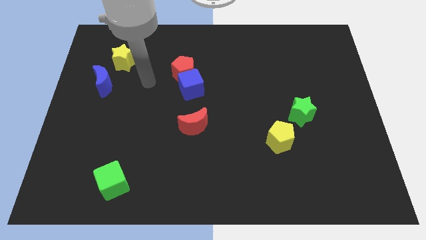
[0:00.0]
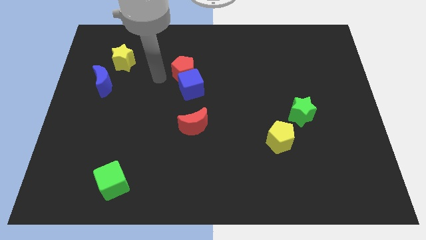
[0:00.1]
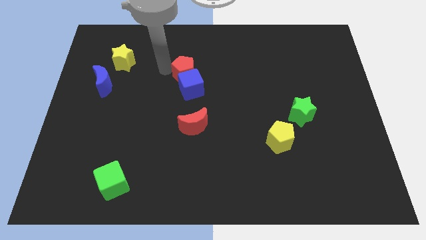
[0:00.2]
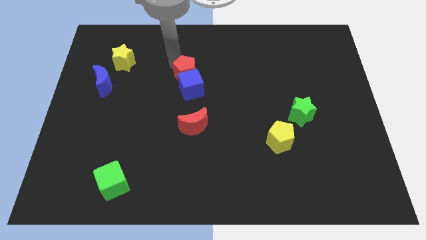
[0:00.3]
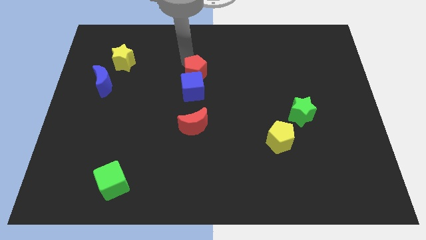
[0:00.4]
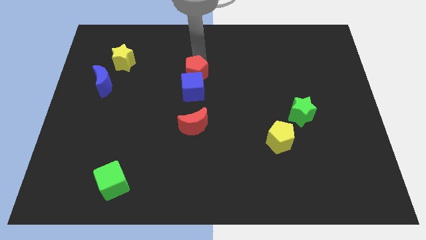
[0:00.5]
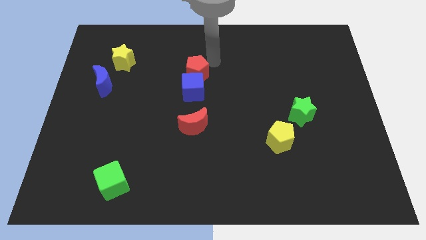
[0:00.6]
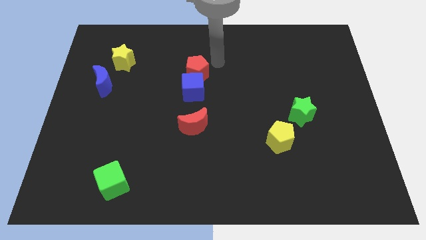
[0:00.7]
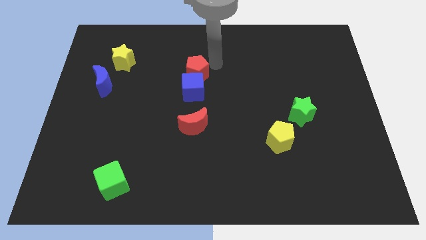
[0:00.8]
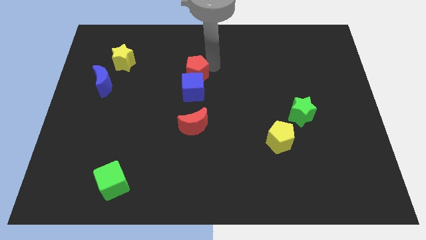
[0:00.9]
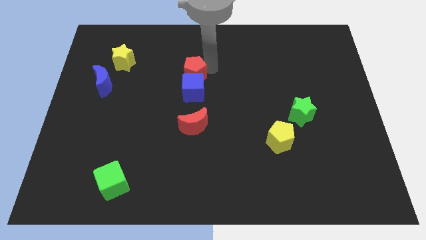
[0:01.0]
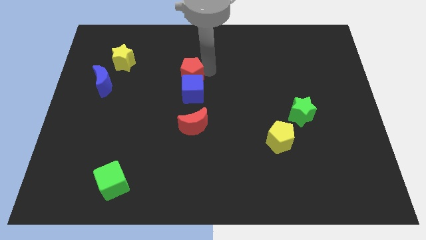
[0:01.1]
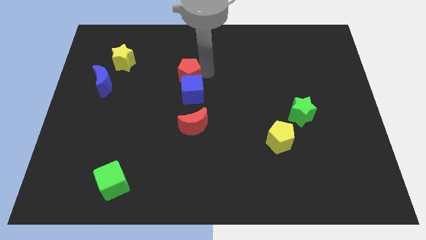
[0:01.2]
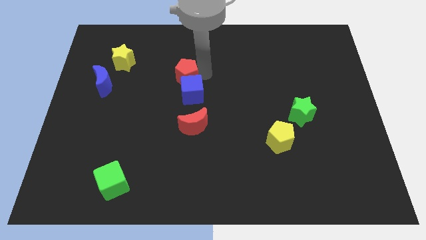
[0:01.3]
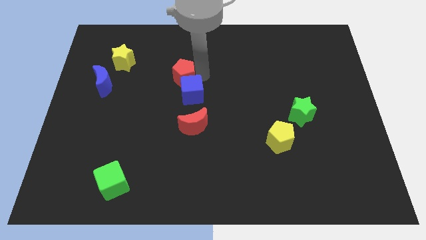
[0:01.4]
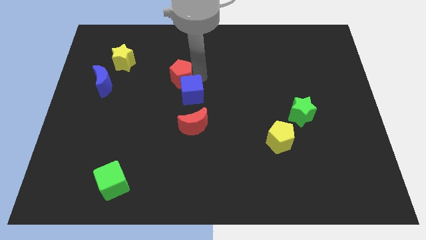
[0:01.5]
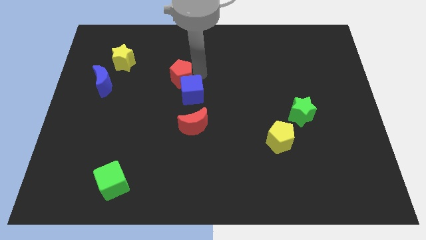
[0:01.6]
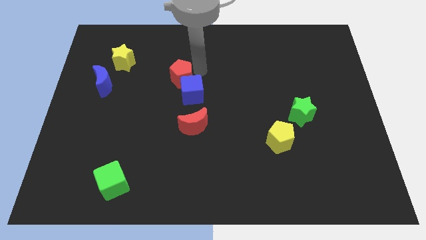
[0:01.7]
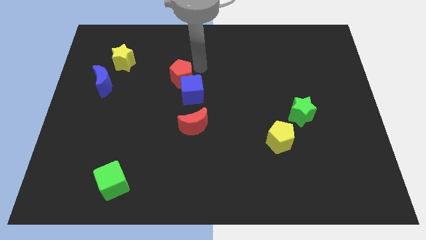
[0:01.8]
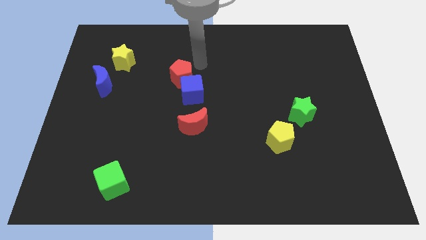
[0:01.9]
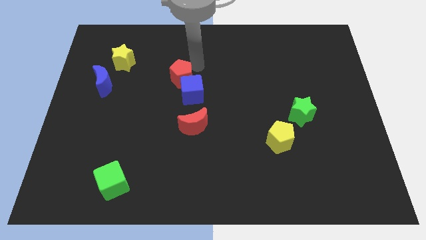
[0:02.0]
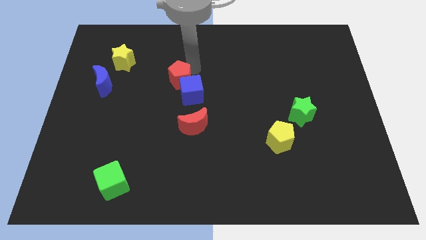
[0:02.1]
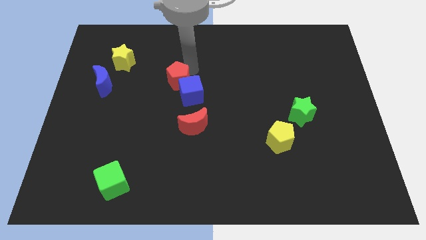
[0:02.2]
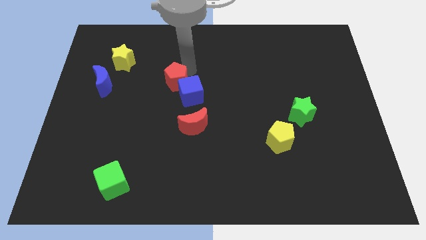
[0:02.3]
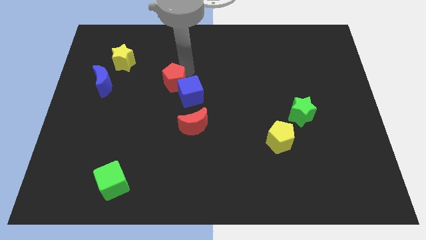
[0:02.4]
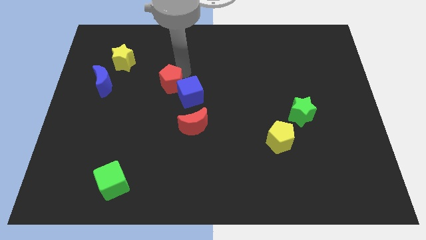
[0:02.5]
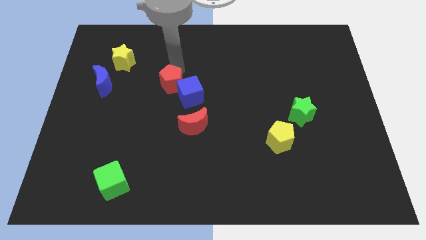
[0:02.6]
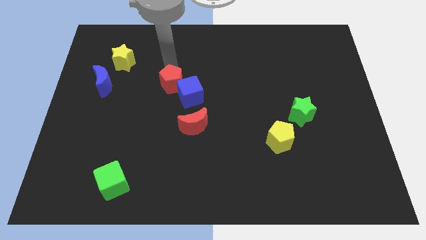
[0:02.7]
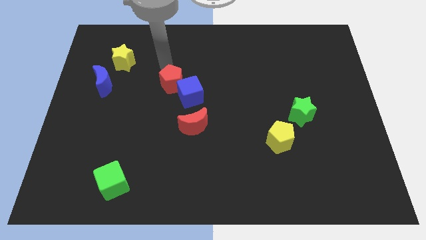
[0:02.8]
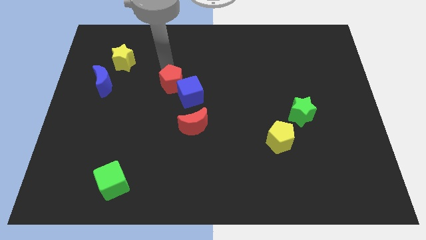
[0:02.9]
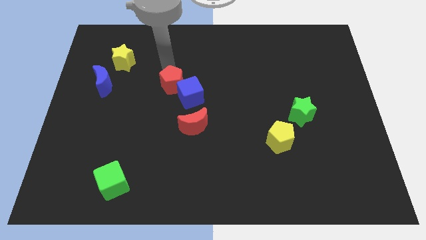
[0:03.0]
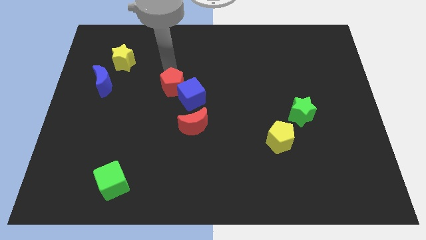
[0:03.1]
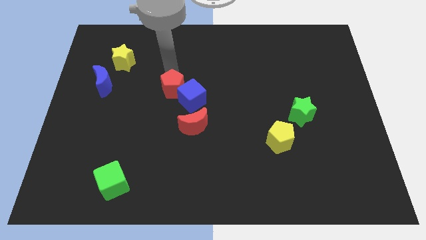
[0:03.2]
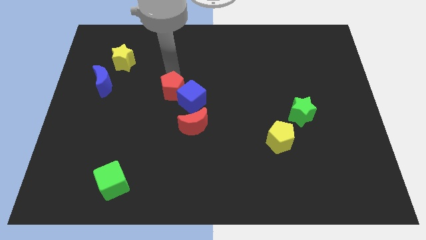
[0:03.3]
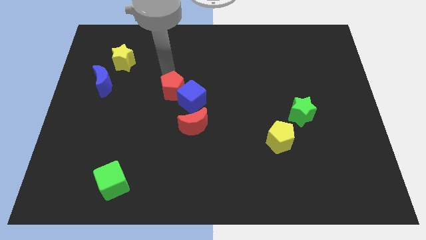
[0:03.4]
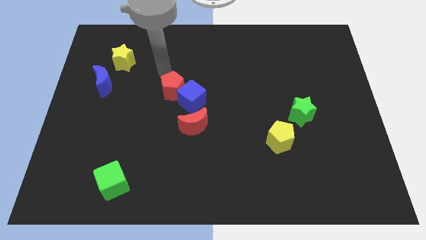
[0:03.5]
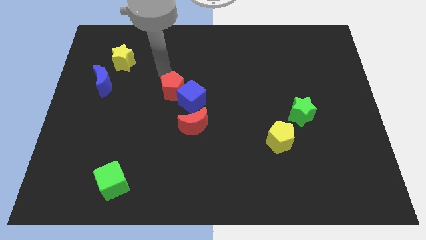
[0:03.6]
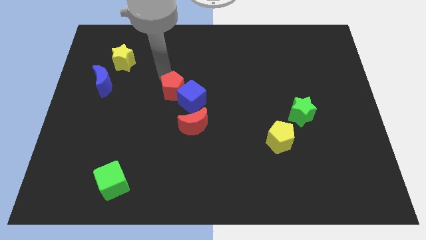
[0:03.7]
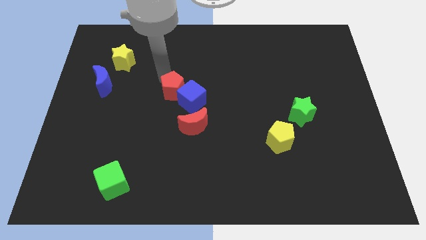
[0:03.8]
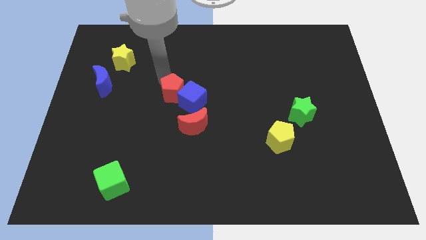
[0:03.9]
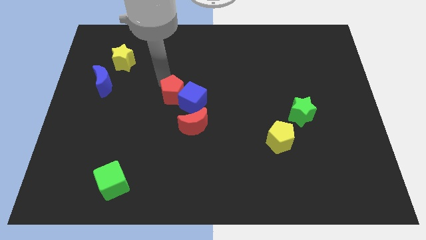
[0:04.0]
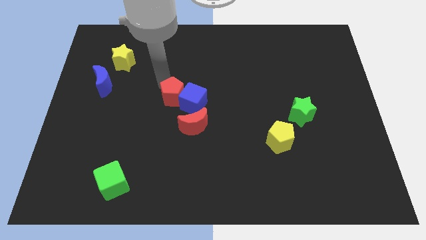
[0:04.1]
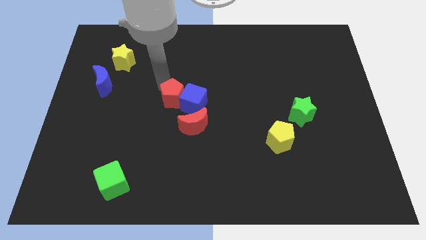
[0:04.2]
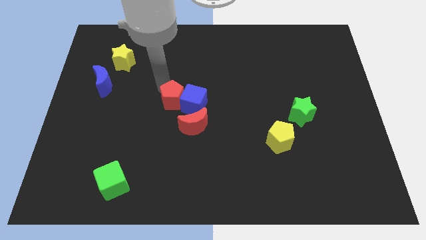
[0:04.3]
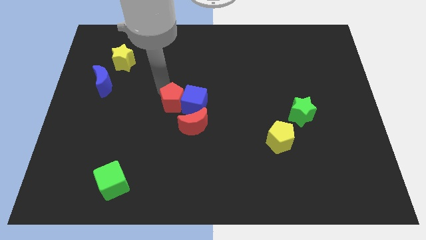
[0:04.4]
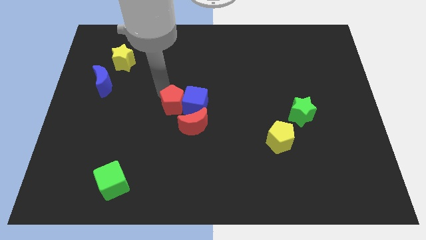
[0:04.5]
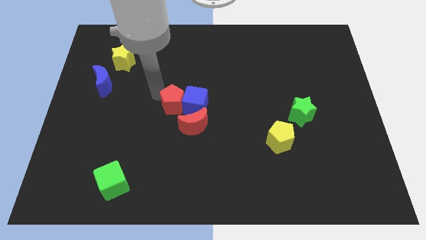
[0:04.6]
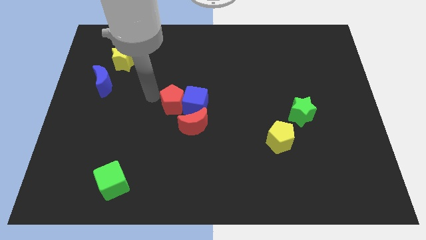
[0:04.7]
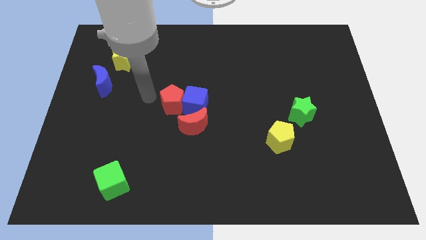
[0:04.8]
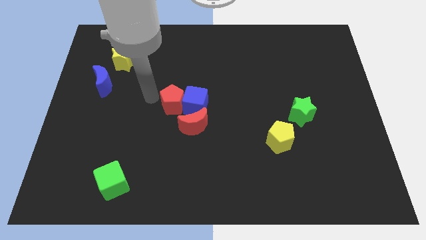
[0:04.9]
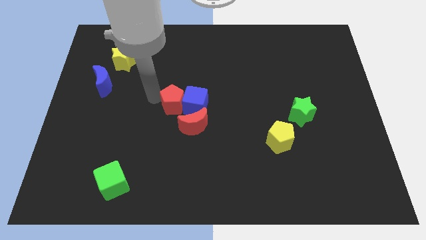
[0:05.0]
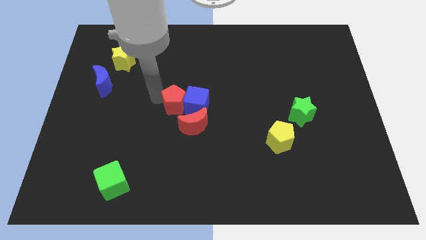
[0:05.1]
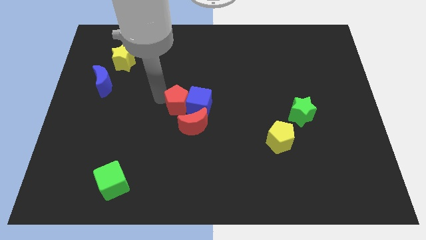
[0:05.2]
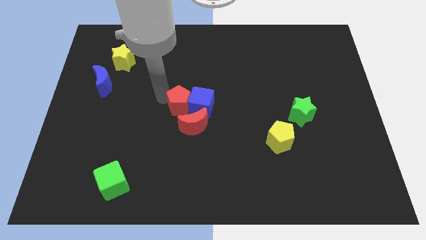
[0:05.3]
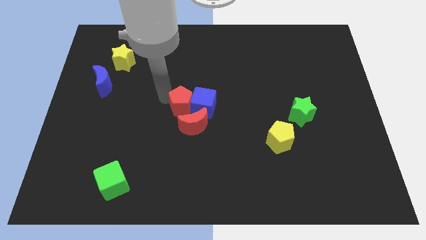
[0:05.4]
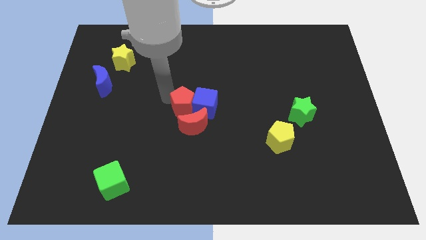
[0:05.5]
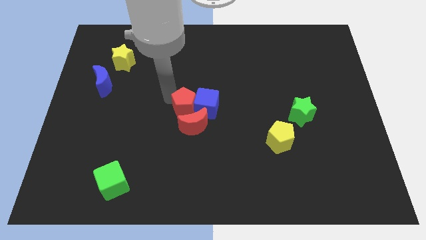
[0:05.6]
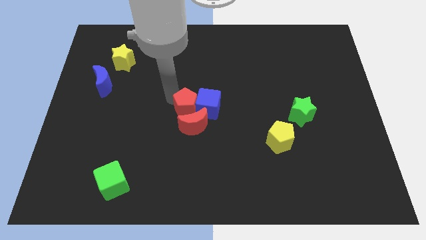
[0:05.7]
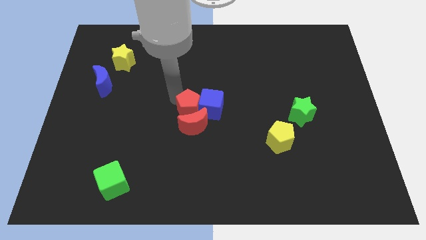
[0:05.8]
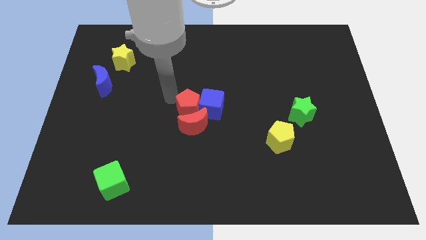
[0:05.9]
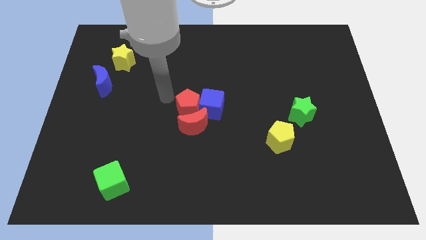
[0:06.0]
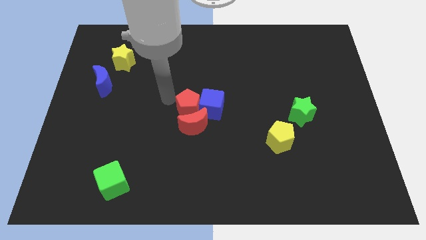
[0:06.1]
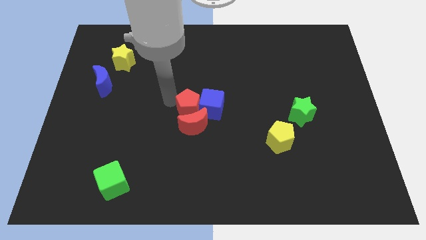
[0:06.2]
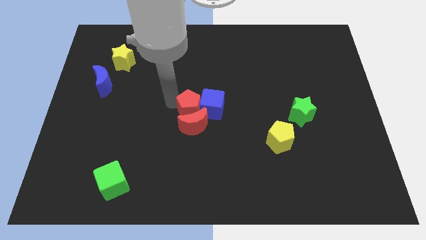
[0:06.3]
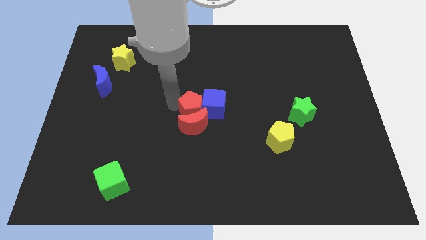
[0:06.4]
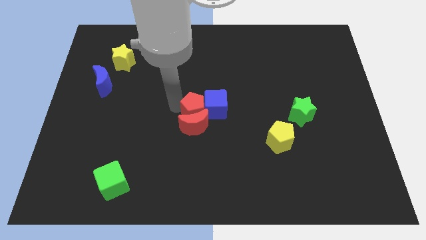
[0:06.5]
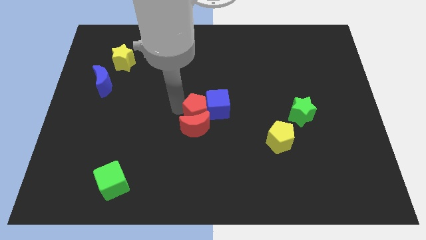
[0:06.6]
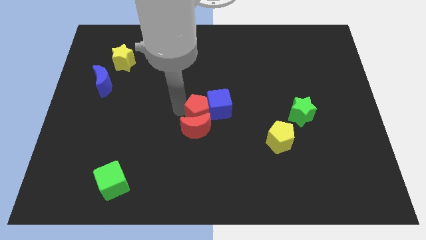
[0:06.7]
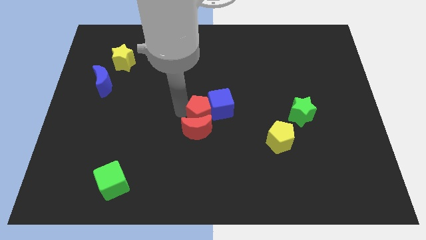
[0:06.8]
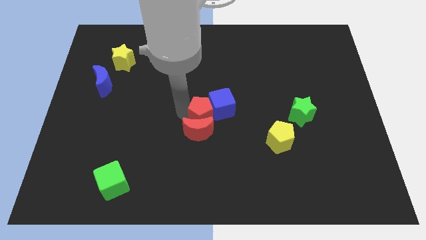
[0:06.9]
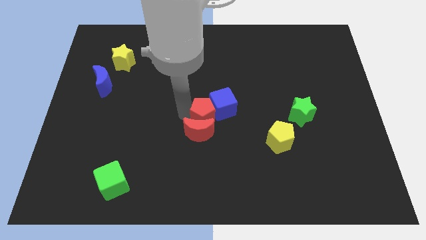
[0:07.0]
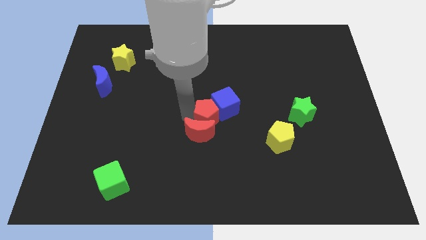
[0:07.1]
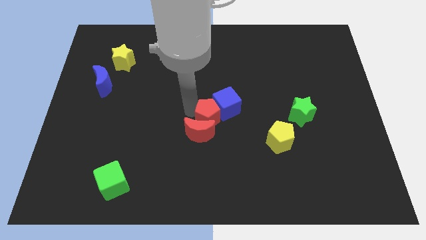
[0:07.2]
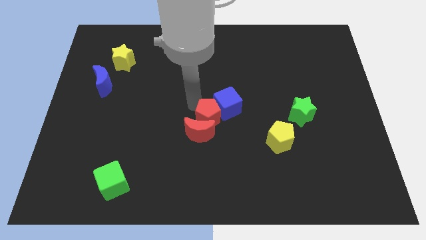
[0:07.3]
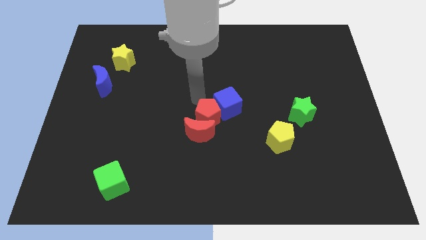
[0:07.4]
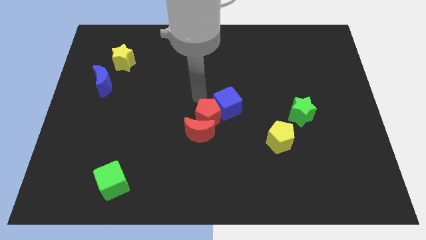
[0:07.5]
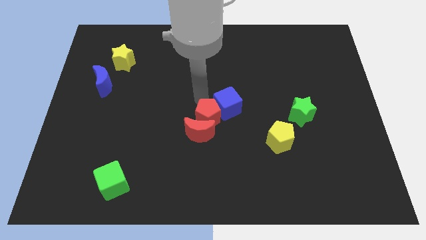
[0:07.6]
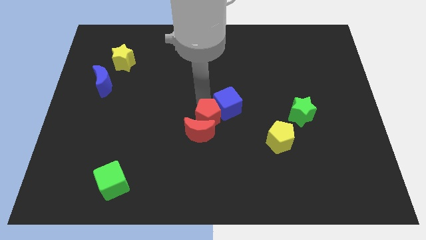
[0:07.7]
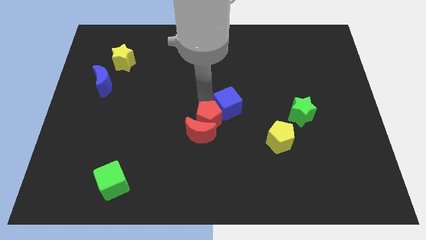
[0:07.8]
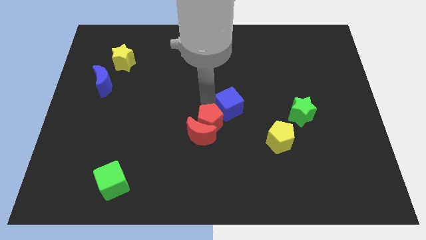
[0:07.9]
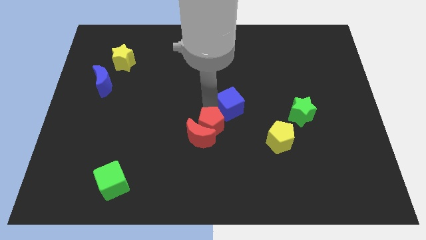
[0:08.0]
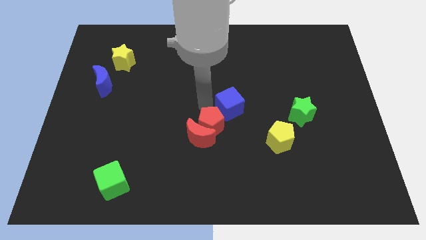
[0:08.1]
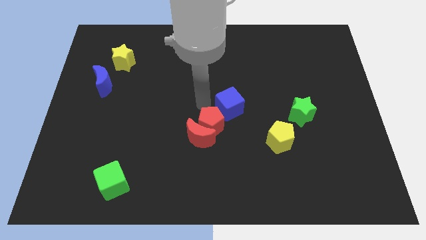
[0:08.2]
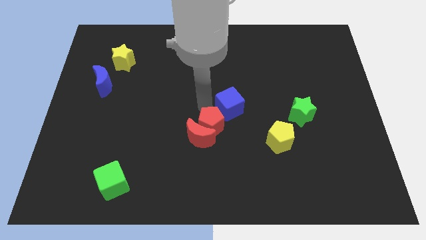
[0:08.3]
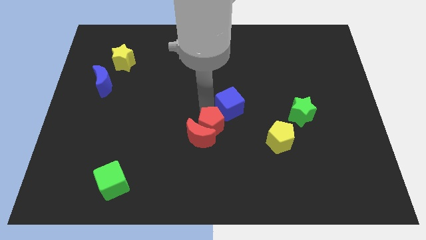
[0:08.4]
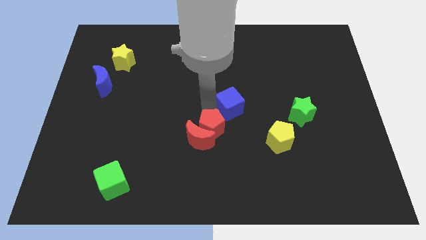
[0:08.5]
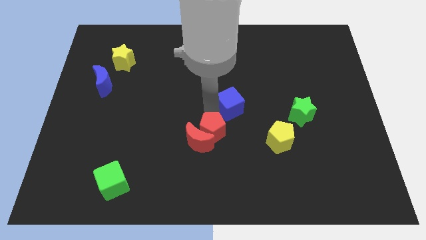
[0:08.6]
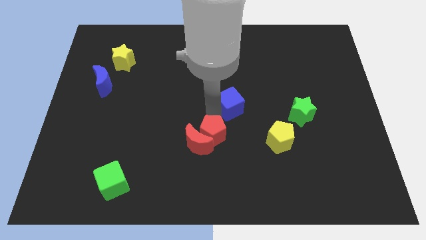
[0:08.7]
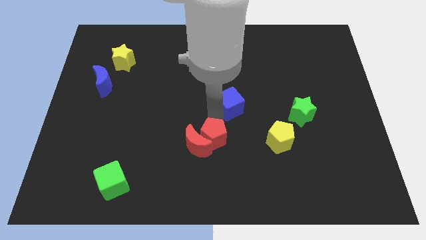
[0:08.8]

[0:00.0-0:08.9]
push the red pentagon diagonally down and to the right of the red moon
